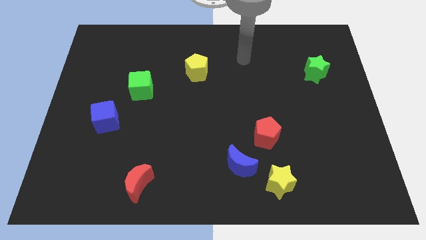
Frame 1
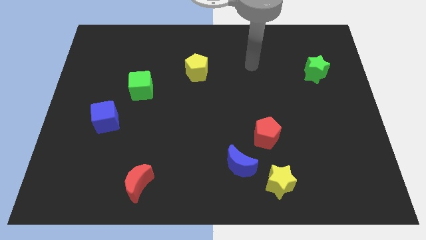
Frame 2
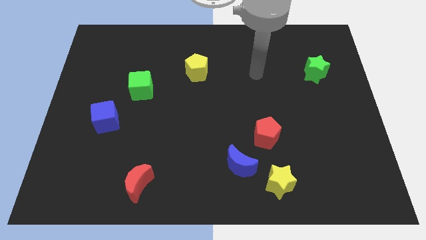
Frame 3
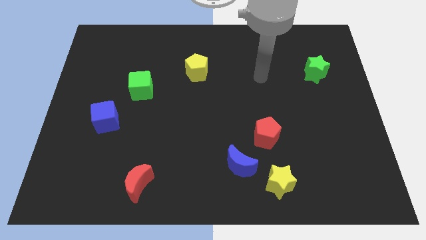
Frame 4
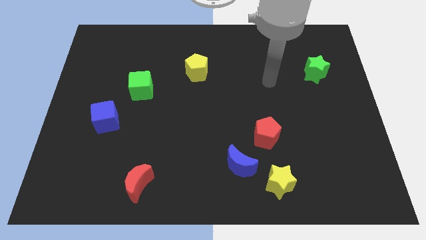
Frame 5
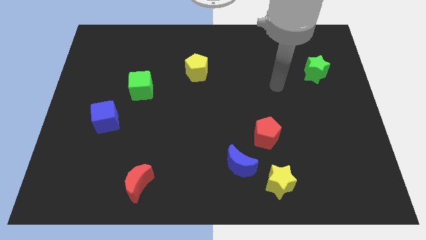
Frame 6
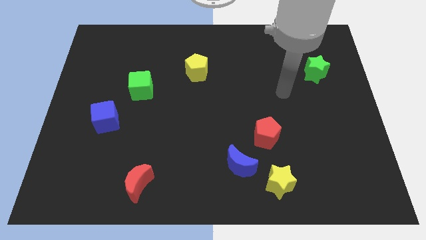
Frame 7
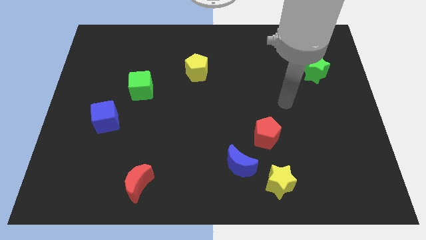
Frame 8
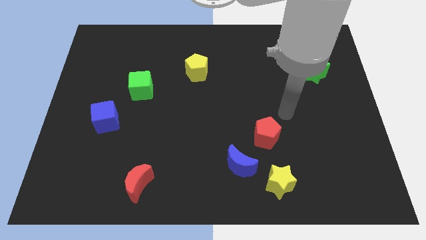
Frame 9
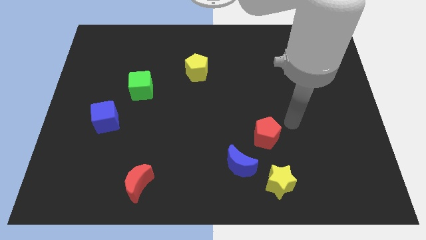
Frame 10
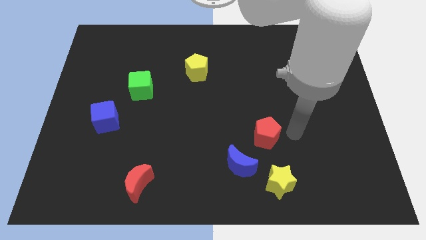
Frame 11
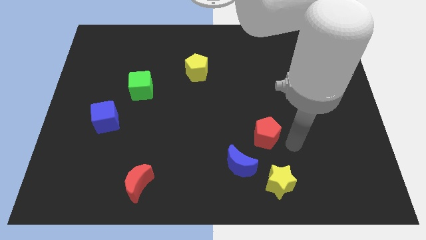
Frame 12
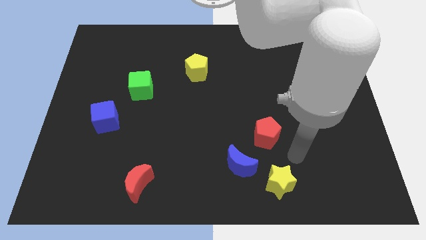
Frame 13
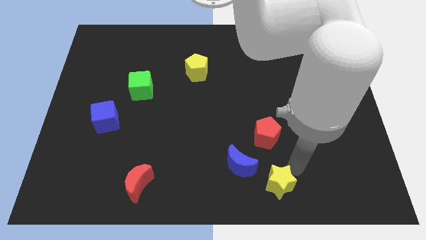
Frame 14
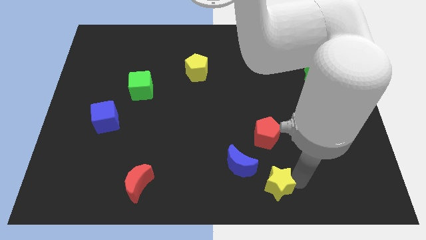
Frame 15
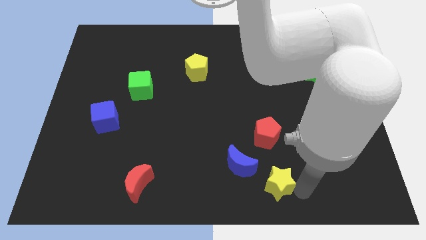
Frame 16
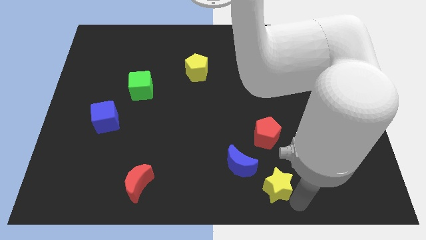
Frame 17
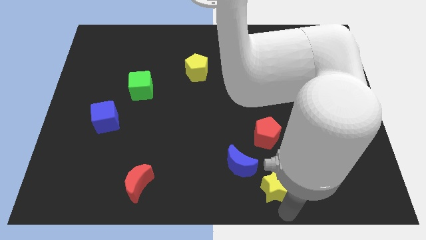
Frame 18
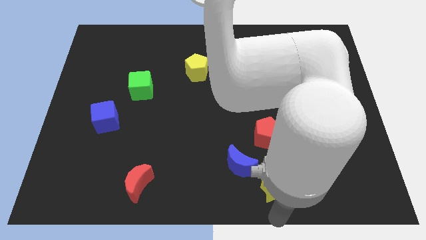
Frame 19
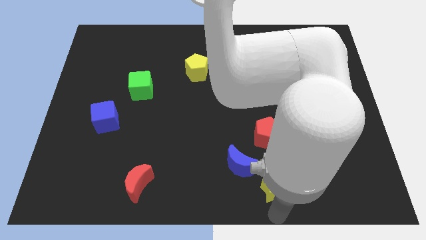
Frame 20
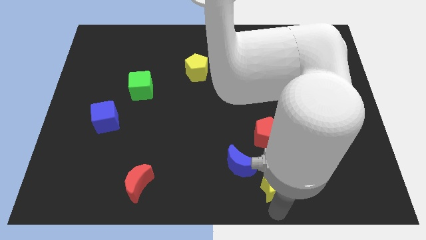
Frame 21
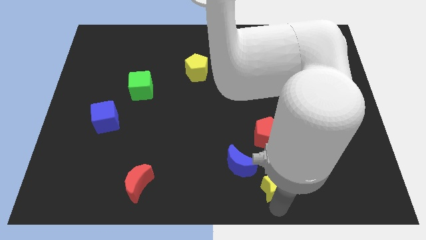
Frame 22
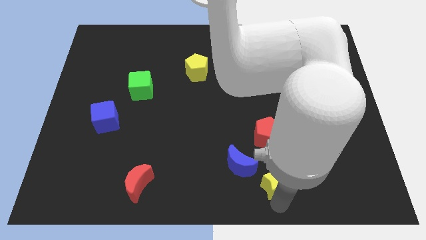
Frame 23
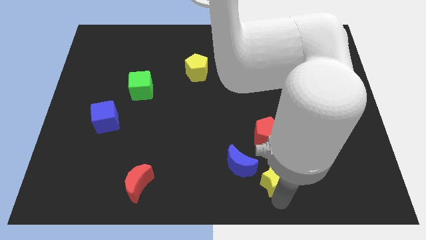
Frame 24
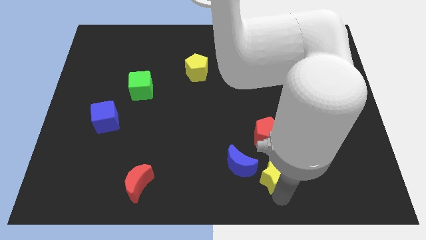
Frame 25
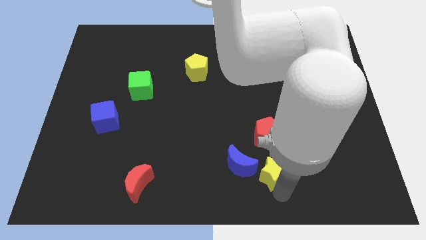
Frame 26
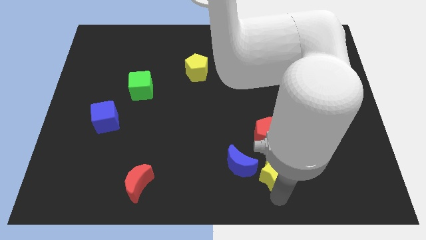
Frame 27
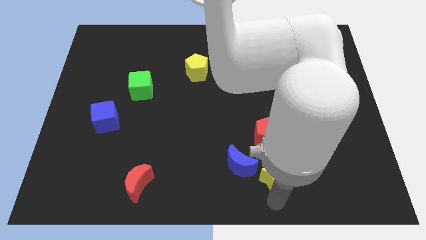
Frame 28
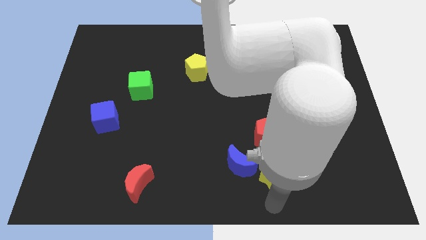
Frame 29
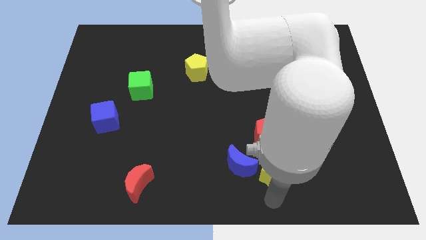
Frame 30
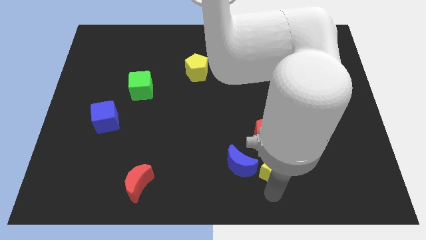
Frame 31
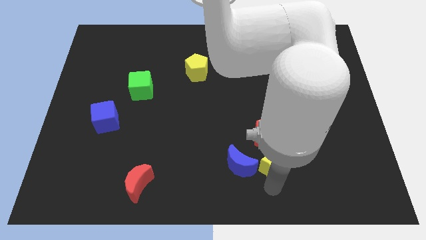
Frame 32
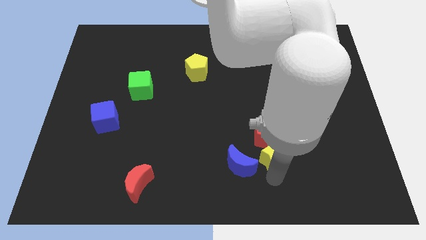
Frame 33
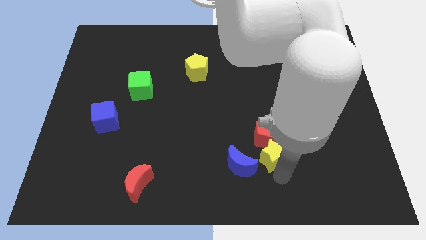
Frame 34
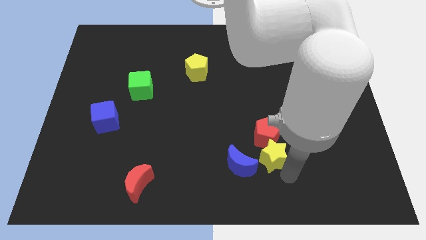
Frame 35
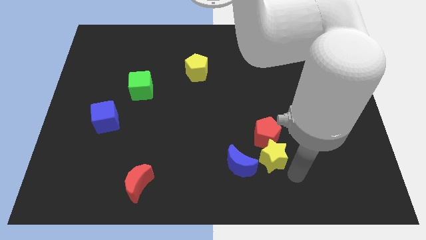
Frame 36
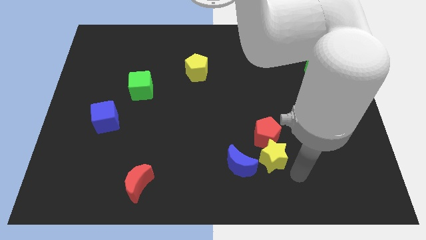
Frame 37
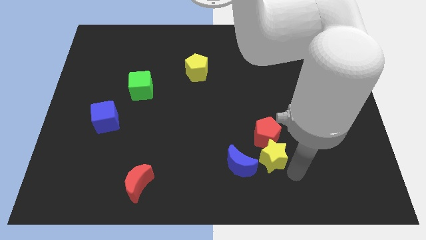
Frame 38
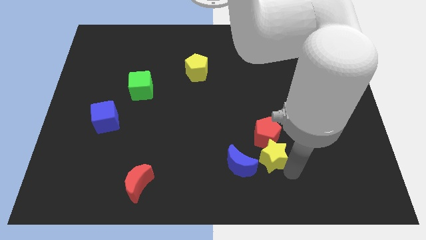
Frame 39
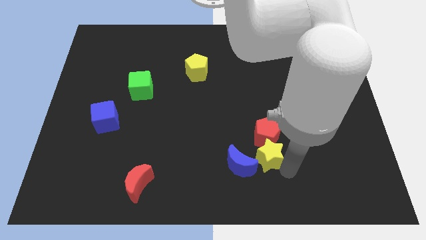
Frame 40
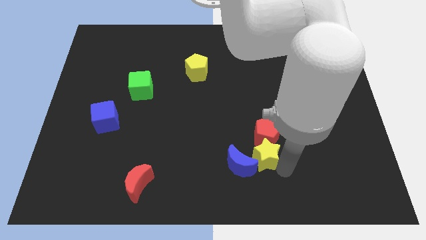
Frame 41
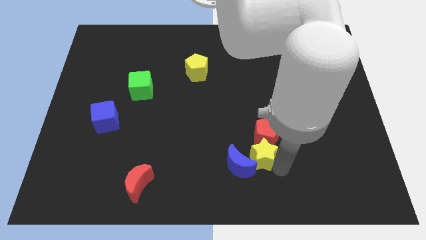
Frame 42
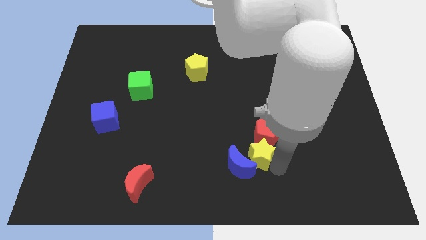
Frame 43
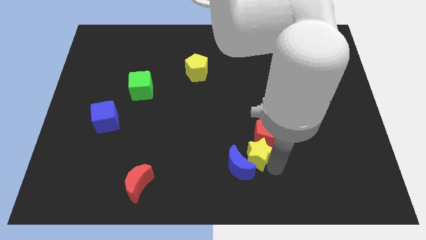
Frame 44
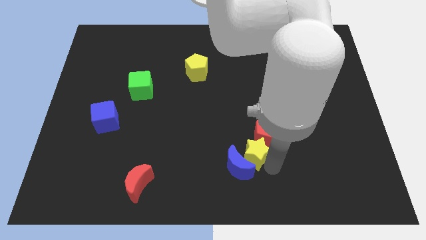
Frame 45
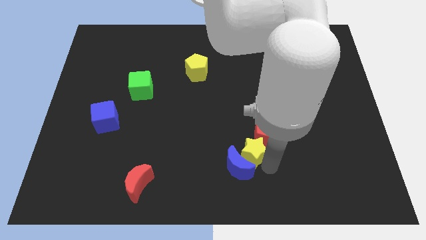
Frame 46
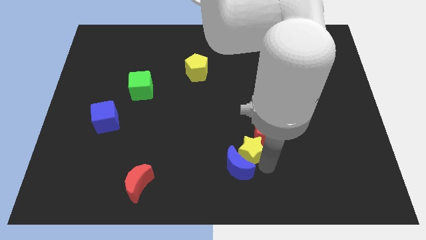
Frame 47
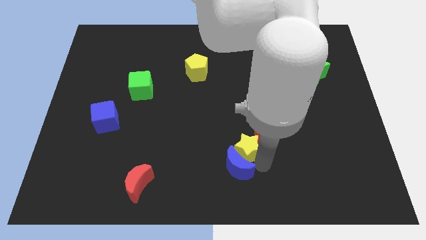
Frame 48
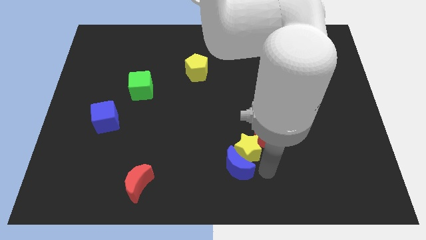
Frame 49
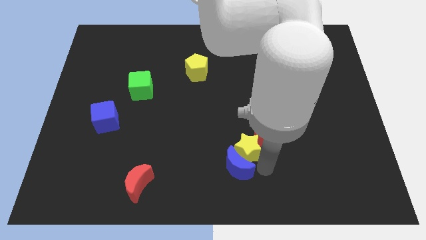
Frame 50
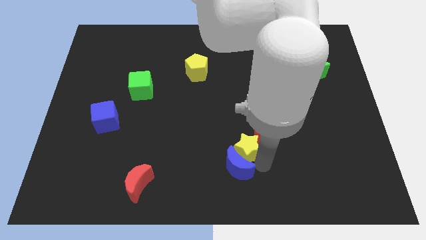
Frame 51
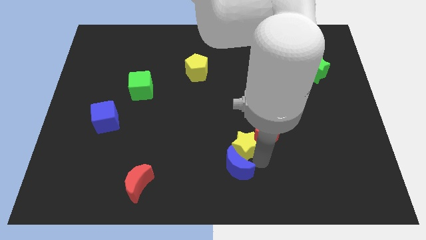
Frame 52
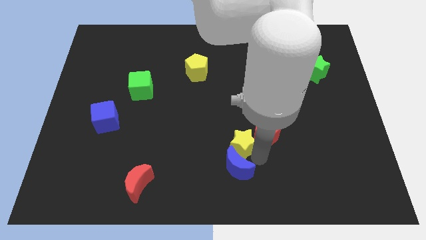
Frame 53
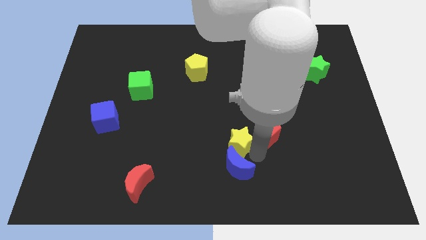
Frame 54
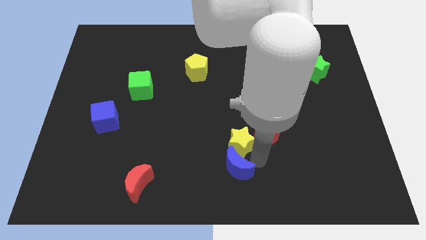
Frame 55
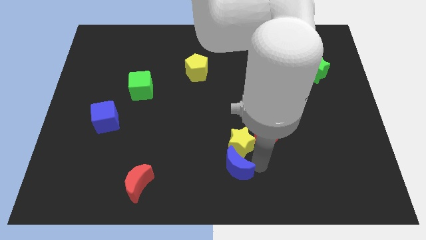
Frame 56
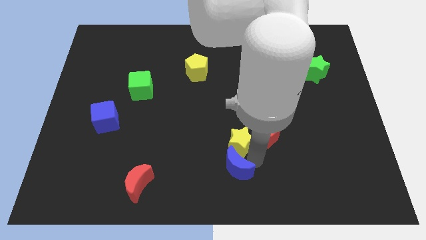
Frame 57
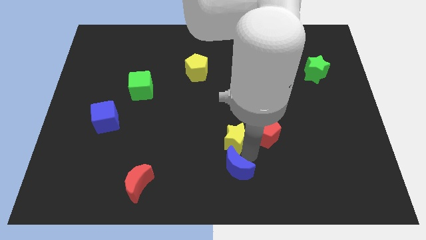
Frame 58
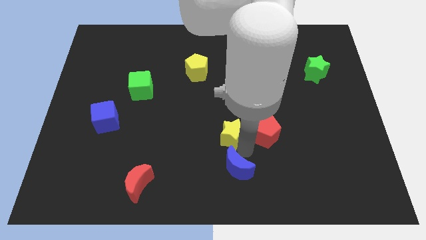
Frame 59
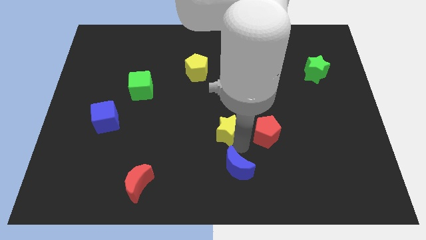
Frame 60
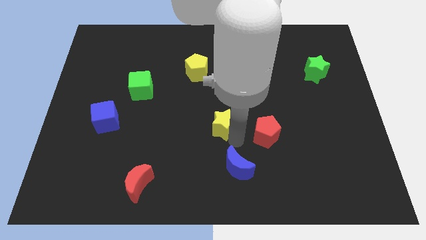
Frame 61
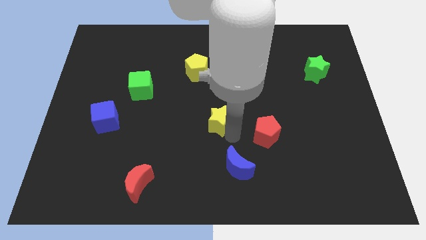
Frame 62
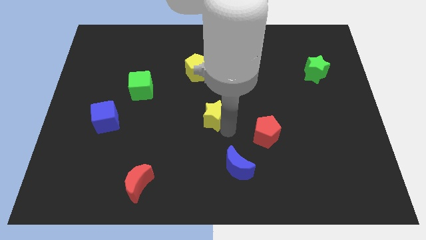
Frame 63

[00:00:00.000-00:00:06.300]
slide the yellow star upwards and left diagonally

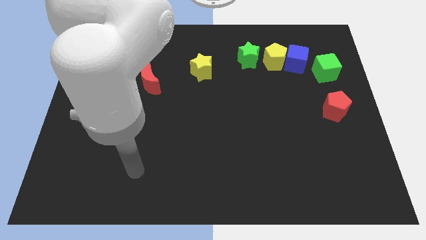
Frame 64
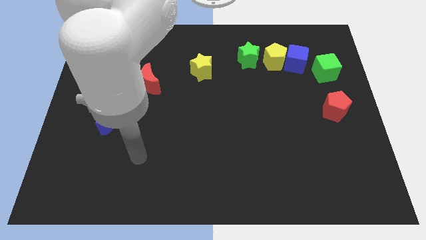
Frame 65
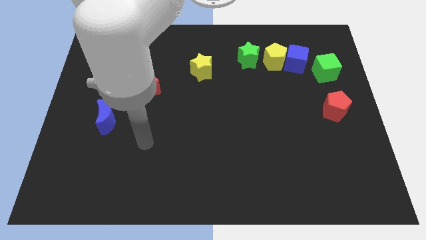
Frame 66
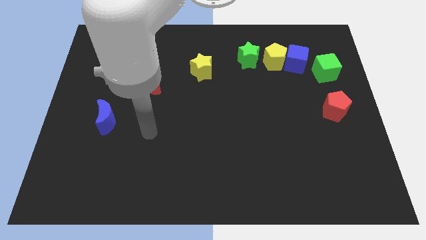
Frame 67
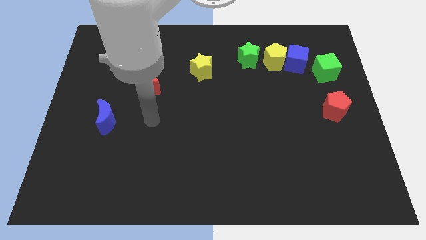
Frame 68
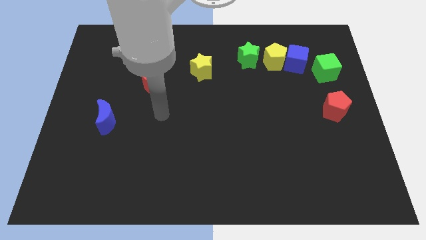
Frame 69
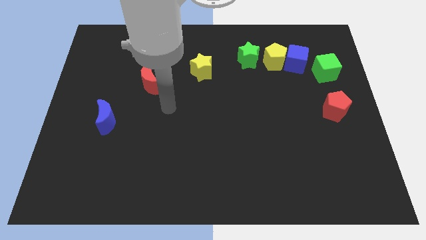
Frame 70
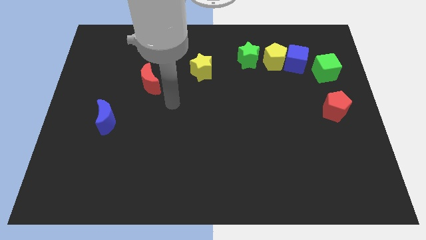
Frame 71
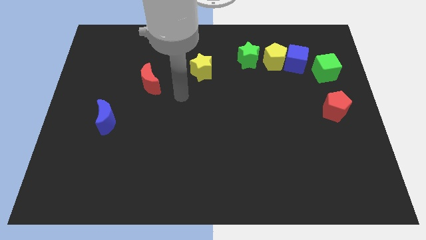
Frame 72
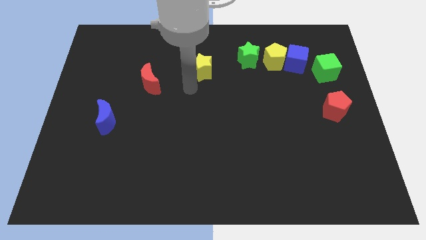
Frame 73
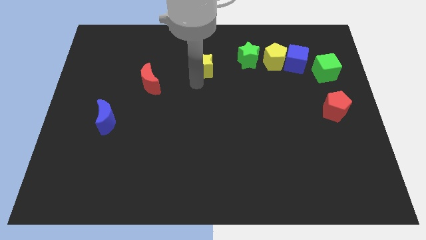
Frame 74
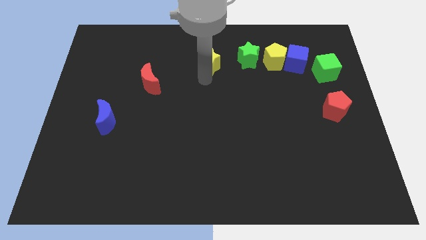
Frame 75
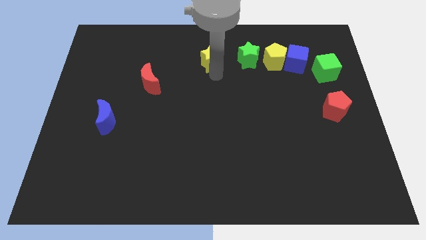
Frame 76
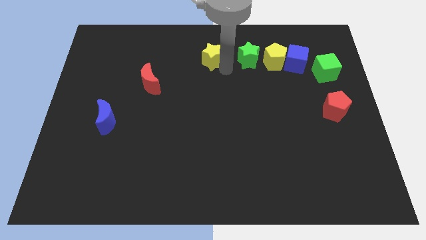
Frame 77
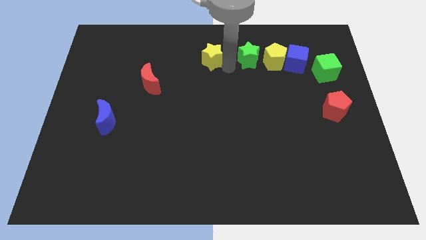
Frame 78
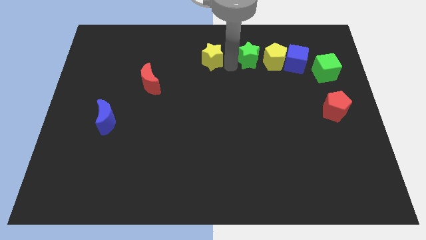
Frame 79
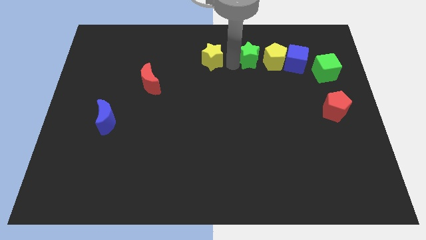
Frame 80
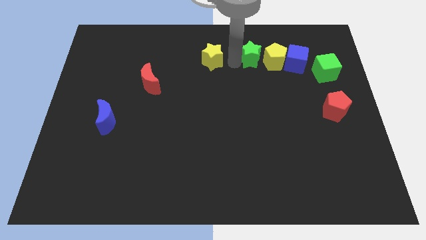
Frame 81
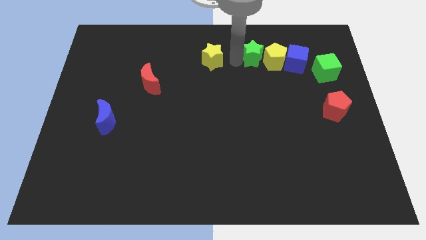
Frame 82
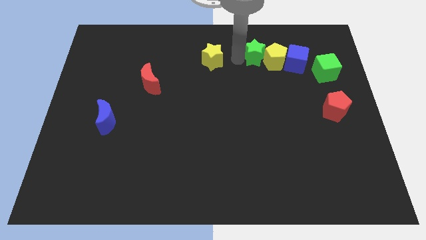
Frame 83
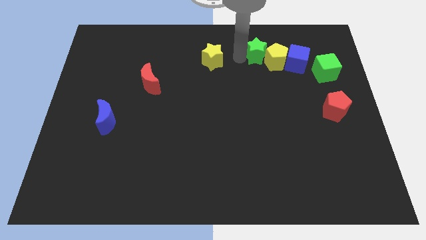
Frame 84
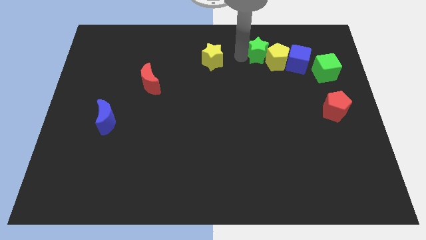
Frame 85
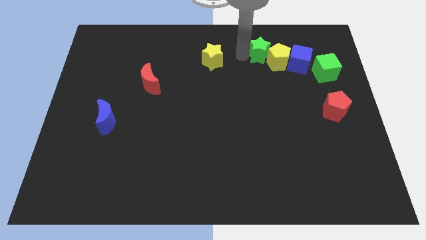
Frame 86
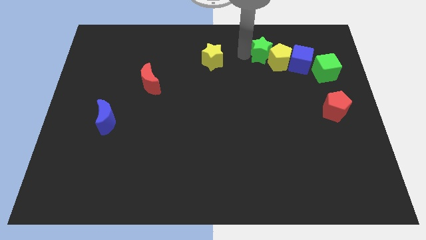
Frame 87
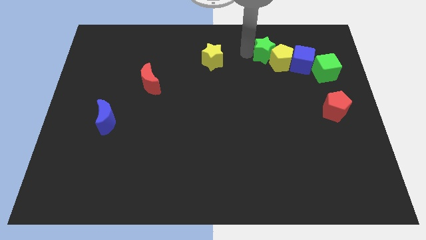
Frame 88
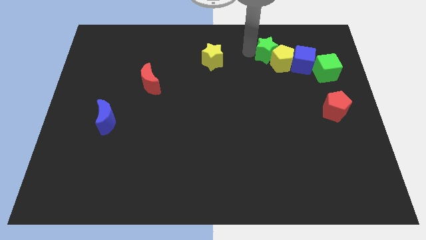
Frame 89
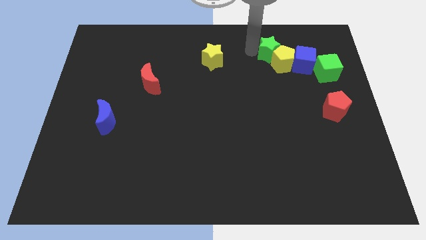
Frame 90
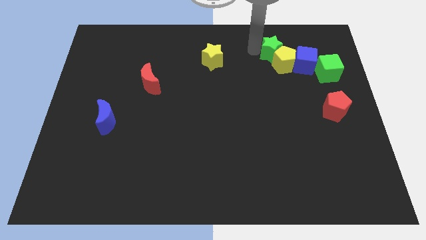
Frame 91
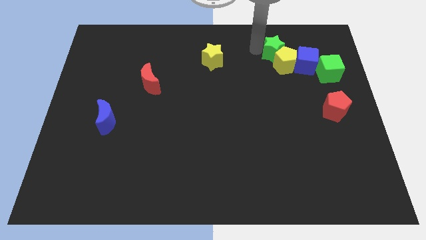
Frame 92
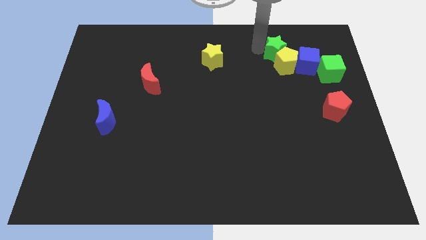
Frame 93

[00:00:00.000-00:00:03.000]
push the green star to the right somewhat
